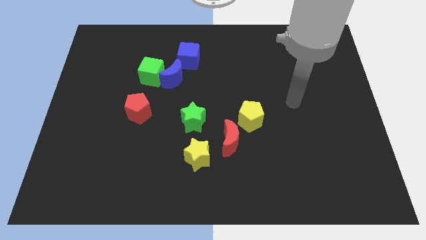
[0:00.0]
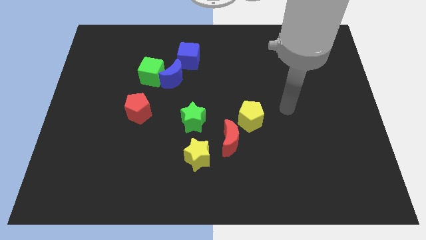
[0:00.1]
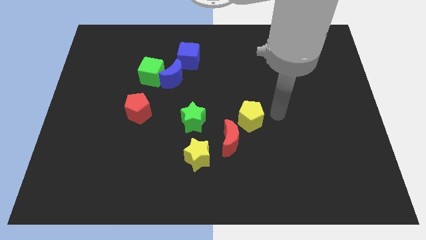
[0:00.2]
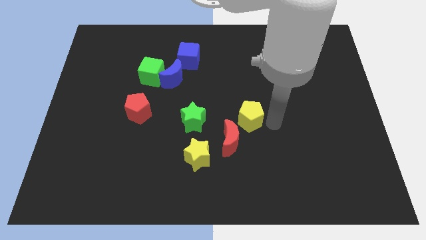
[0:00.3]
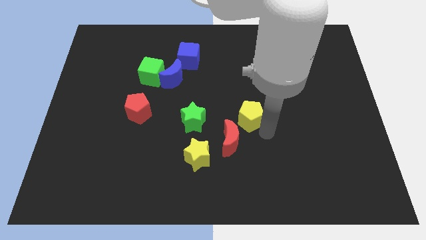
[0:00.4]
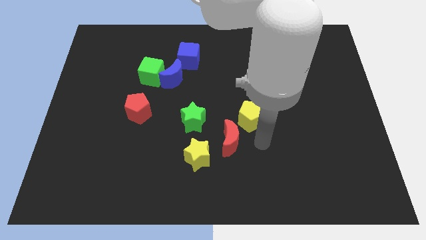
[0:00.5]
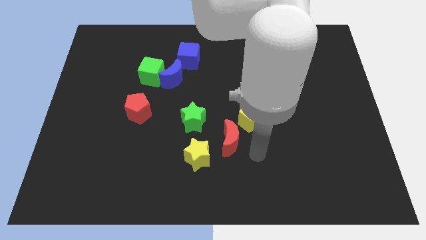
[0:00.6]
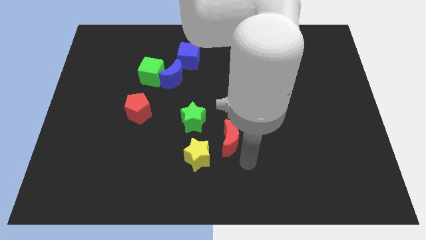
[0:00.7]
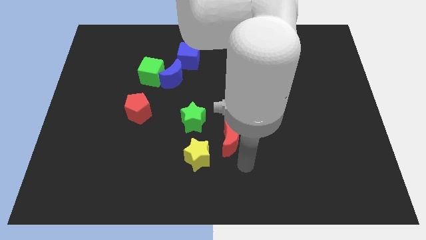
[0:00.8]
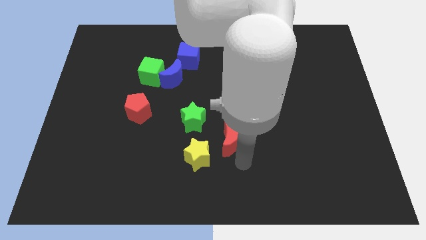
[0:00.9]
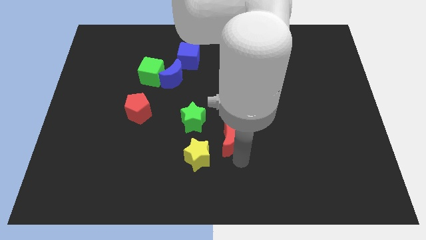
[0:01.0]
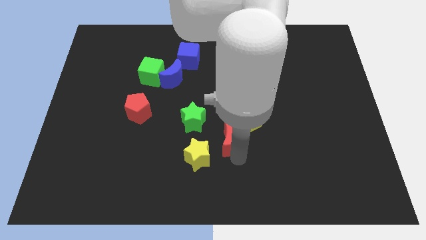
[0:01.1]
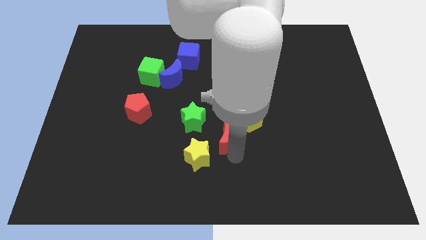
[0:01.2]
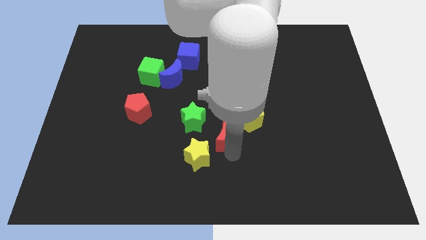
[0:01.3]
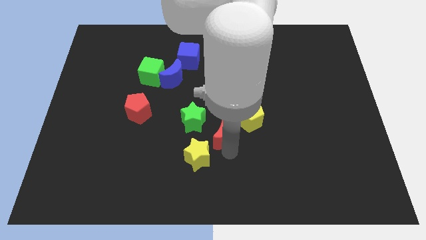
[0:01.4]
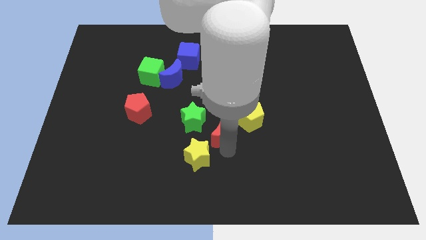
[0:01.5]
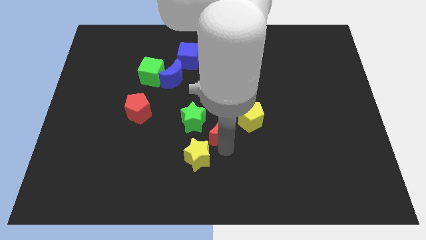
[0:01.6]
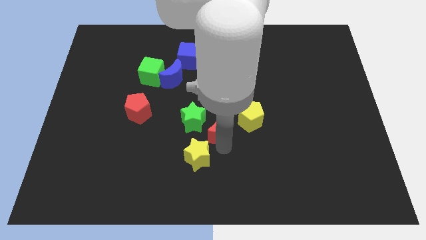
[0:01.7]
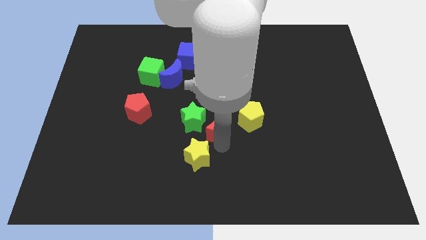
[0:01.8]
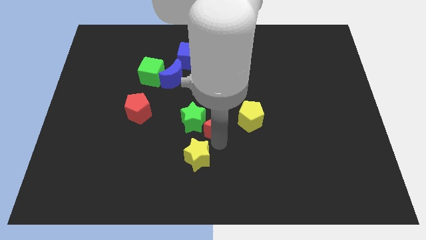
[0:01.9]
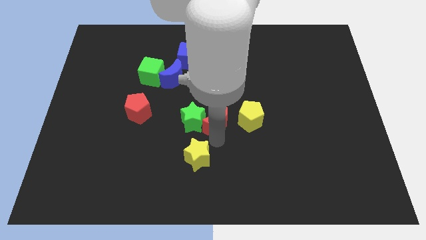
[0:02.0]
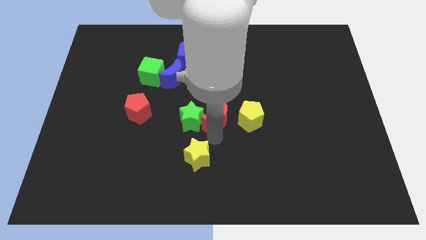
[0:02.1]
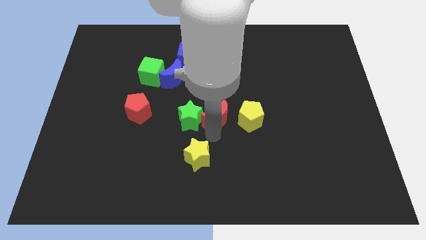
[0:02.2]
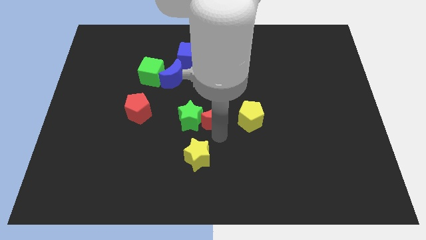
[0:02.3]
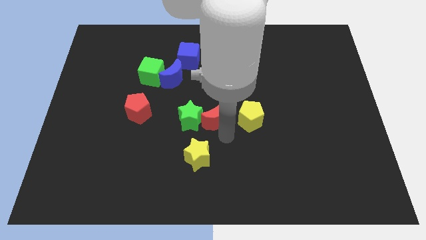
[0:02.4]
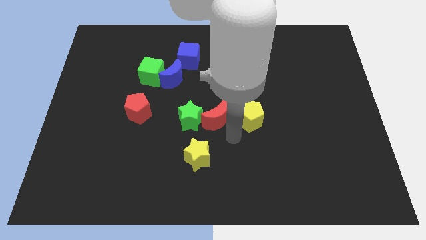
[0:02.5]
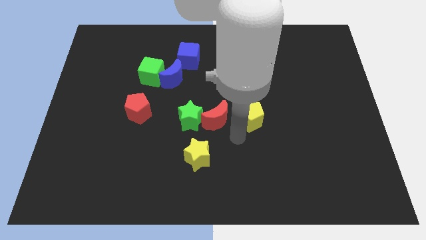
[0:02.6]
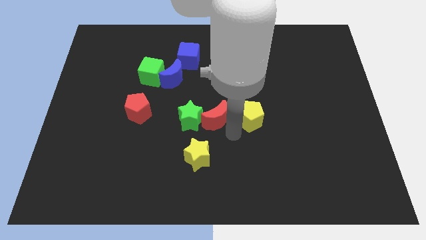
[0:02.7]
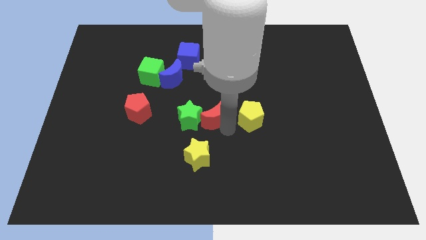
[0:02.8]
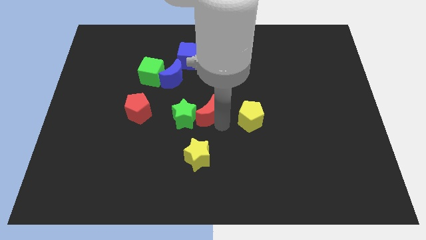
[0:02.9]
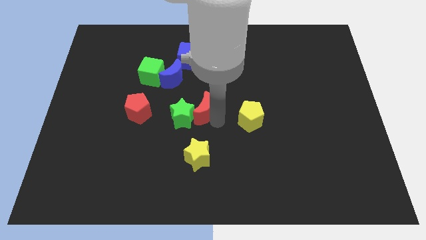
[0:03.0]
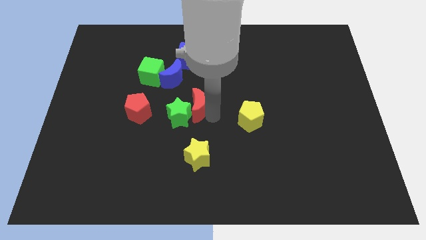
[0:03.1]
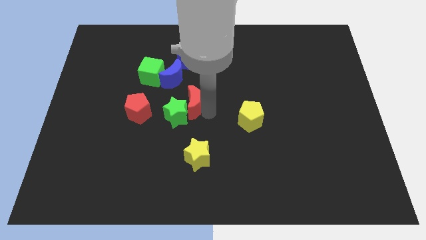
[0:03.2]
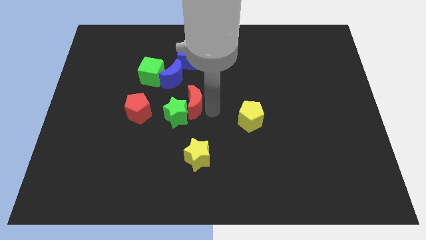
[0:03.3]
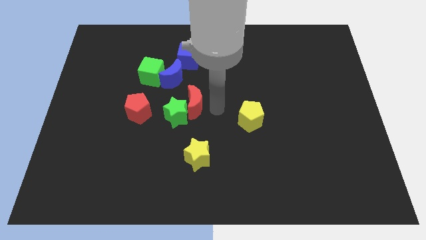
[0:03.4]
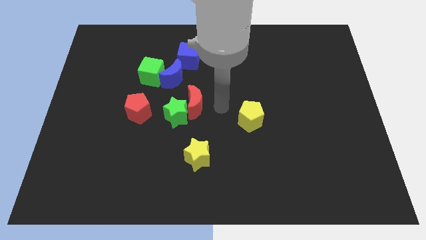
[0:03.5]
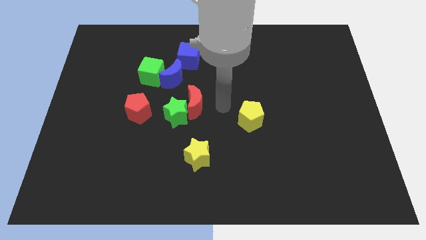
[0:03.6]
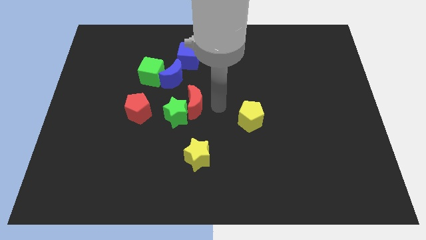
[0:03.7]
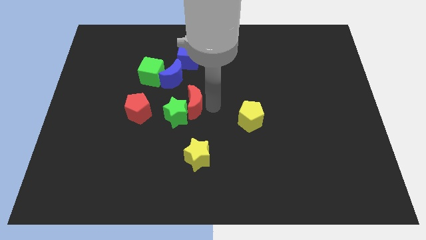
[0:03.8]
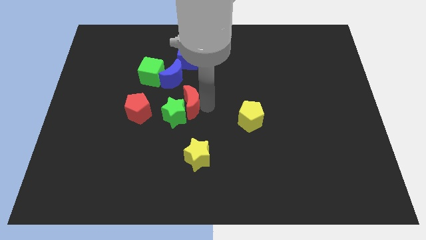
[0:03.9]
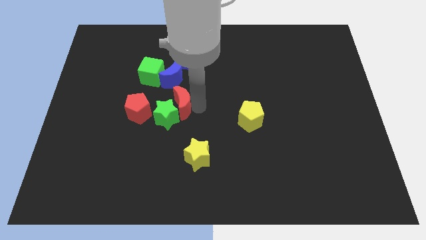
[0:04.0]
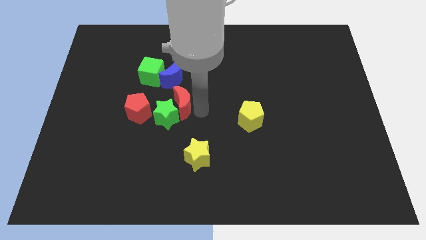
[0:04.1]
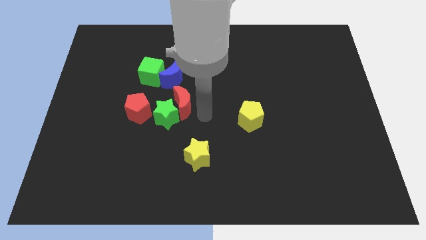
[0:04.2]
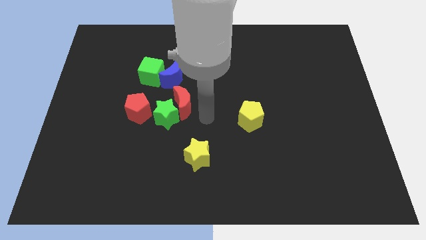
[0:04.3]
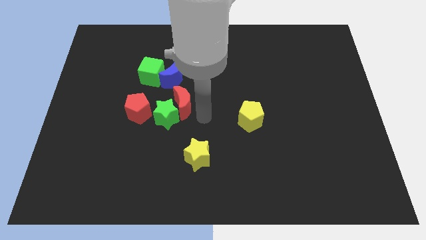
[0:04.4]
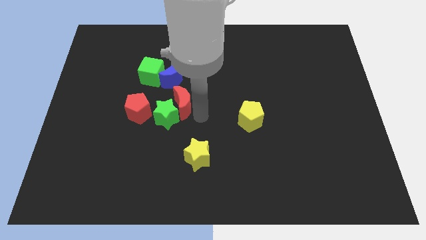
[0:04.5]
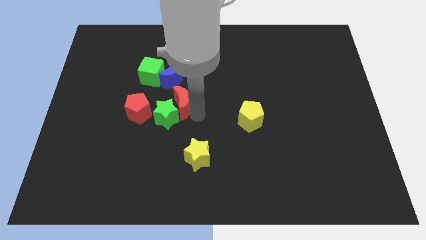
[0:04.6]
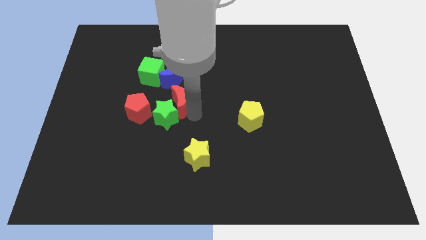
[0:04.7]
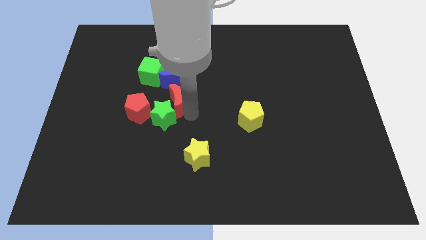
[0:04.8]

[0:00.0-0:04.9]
put the red moon to the top right side of the red pentagon

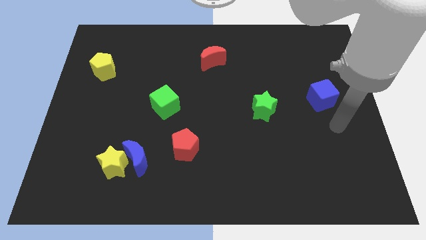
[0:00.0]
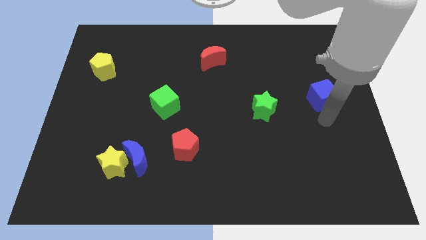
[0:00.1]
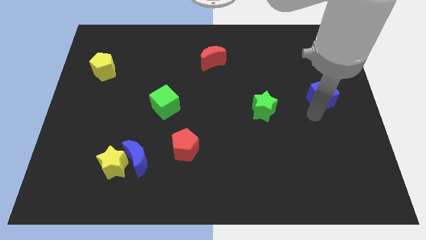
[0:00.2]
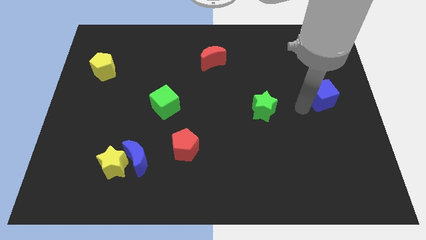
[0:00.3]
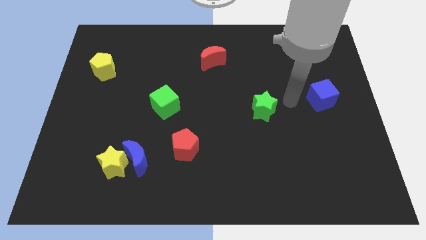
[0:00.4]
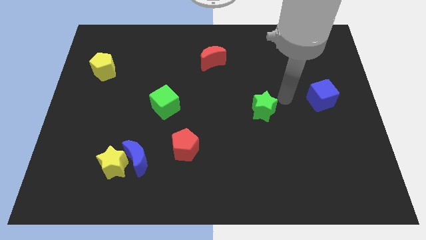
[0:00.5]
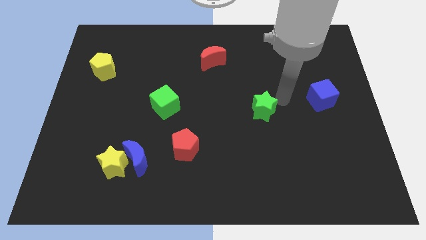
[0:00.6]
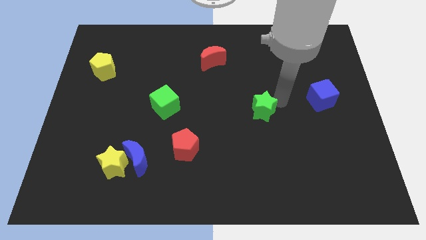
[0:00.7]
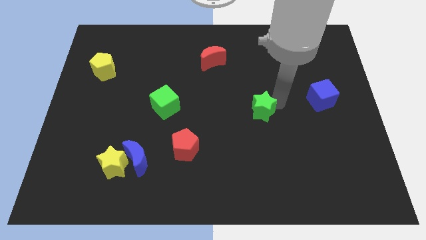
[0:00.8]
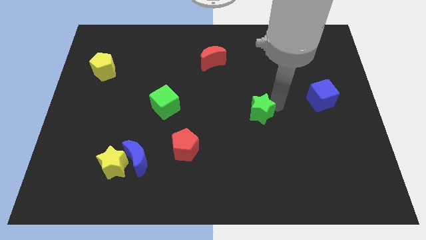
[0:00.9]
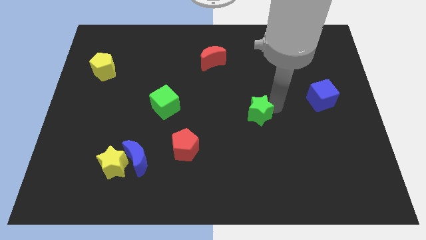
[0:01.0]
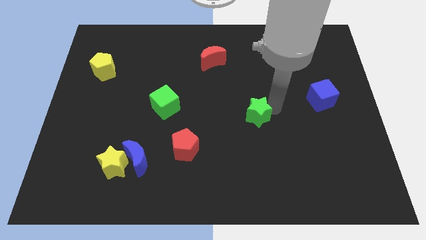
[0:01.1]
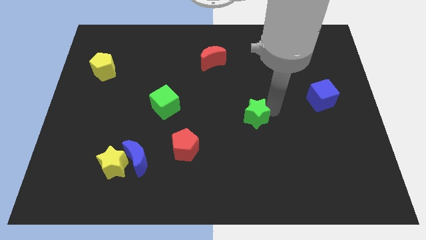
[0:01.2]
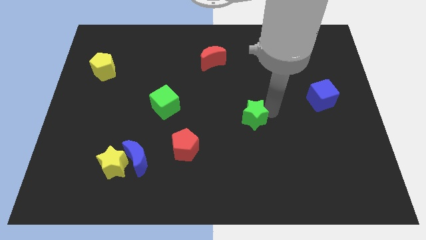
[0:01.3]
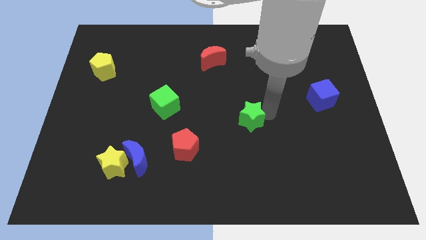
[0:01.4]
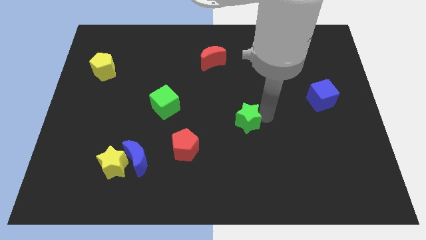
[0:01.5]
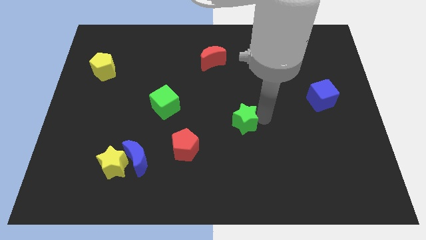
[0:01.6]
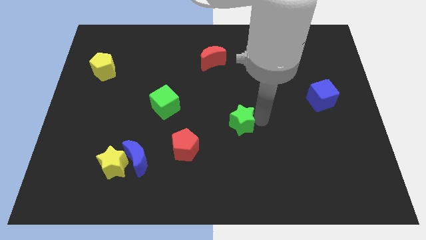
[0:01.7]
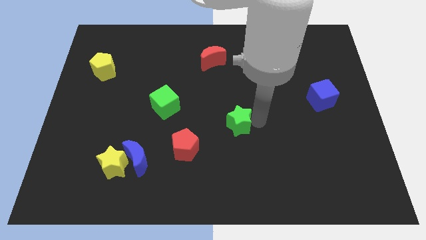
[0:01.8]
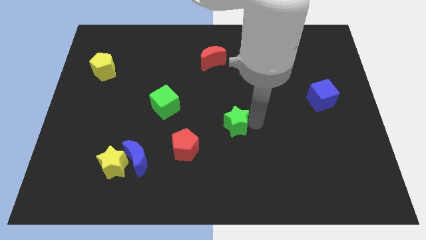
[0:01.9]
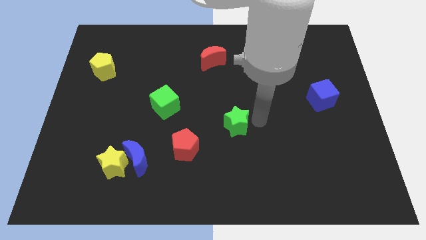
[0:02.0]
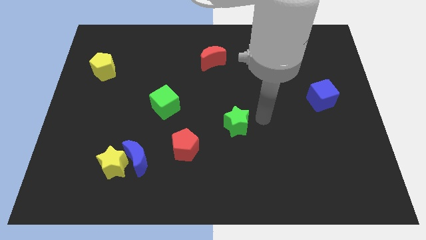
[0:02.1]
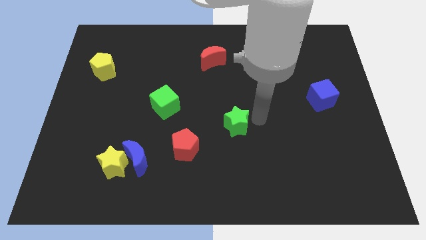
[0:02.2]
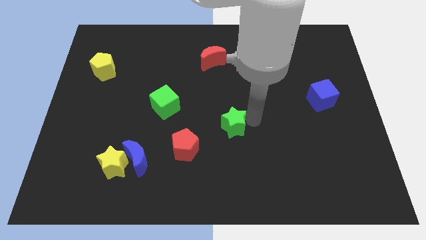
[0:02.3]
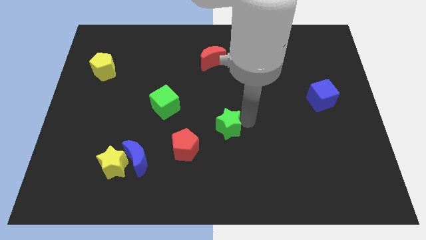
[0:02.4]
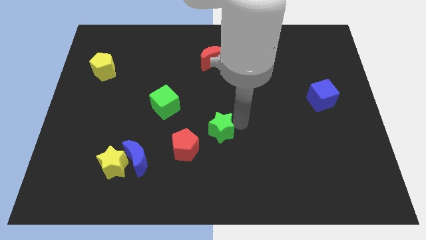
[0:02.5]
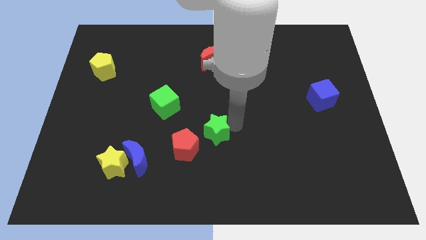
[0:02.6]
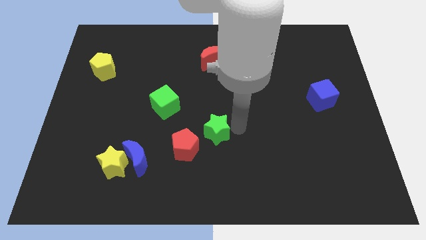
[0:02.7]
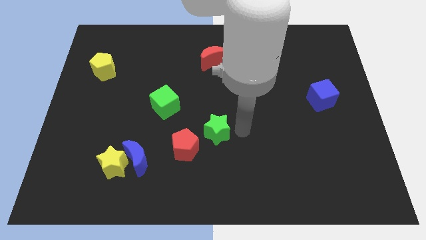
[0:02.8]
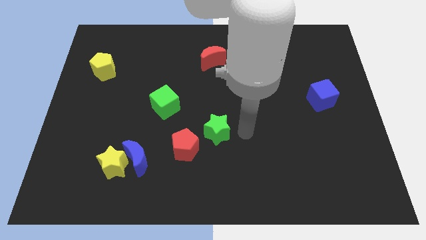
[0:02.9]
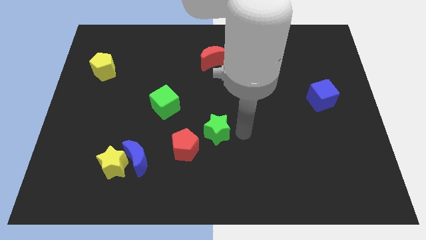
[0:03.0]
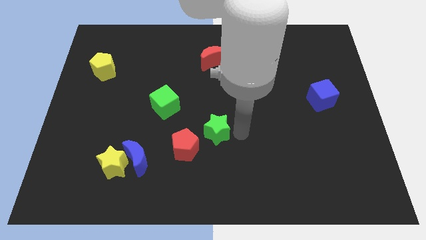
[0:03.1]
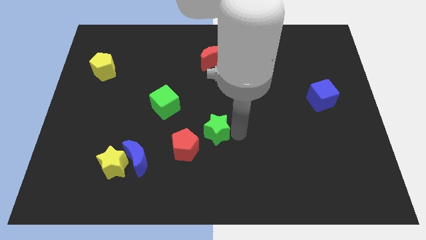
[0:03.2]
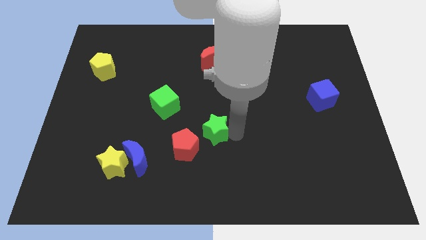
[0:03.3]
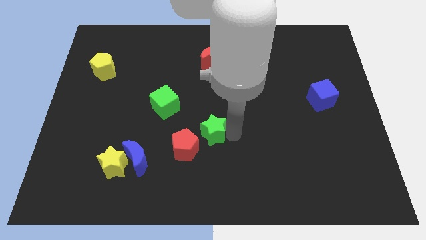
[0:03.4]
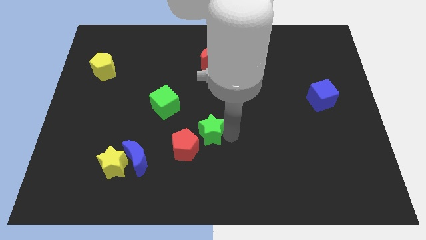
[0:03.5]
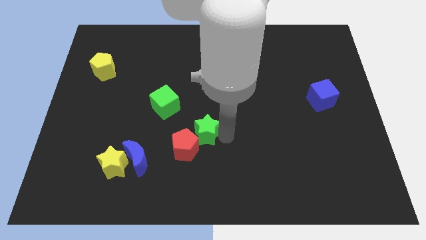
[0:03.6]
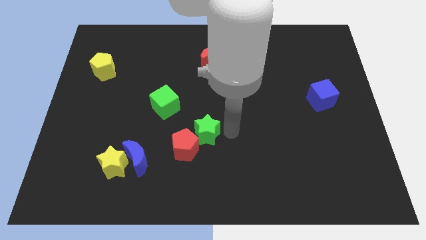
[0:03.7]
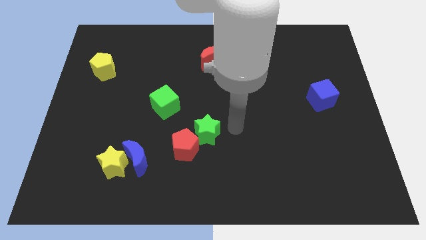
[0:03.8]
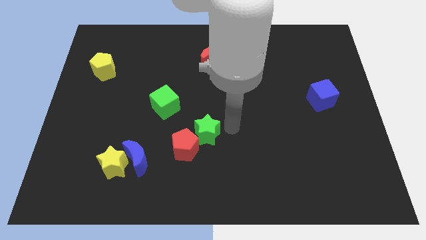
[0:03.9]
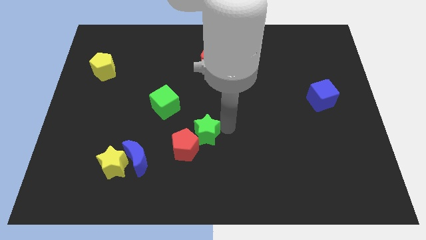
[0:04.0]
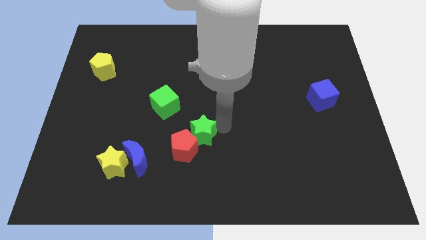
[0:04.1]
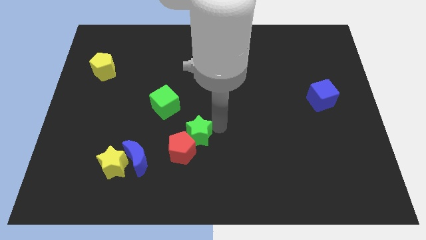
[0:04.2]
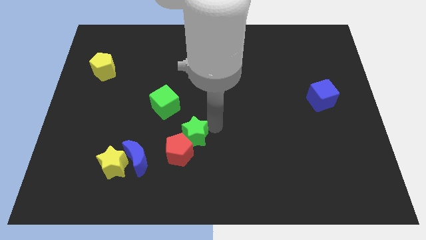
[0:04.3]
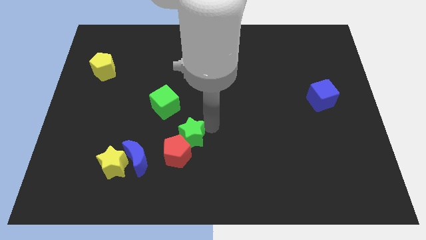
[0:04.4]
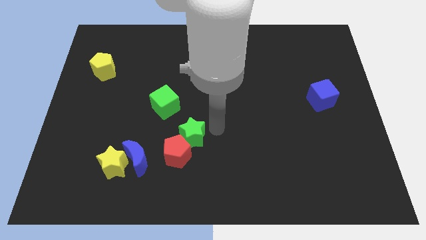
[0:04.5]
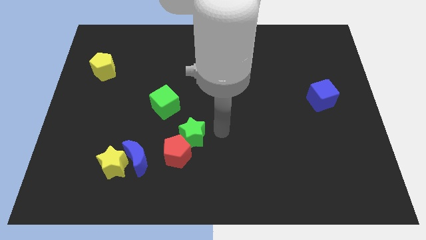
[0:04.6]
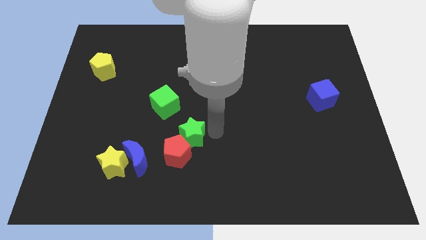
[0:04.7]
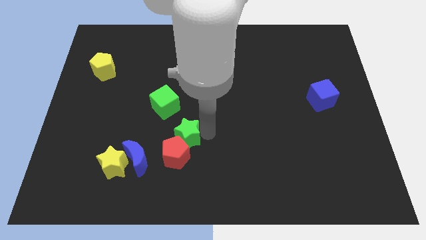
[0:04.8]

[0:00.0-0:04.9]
move the green star diagonally up and to the right of the blue moon
